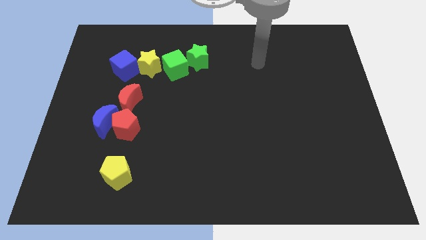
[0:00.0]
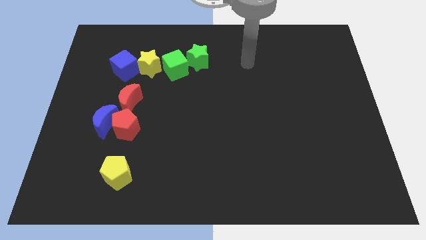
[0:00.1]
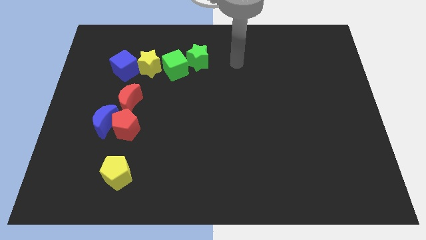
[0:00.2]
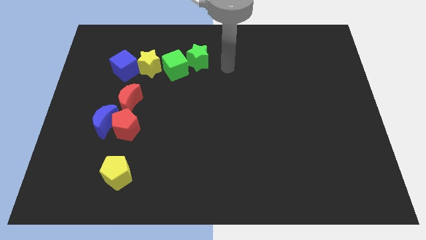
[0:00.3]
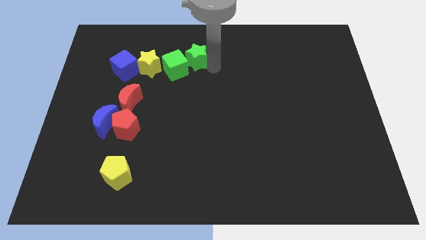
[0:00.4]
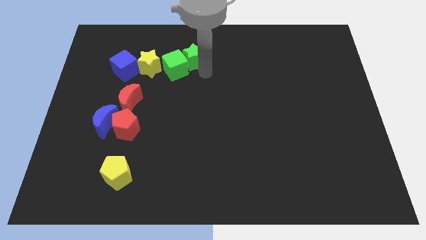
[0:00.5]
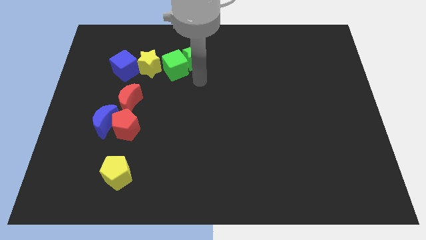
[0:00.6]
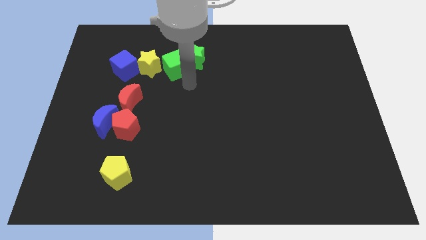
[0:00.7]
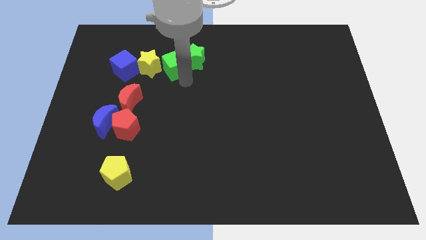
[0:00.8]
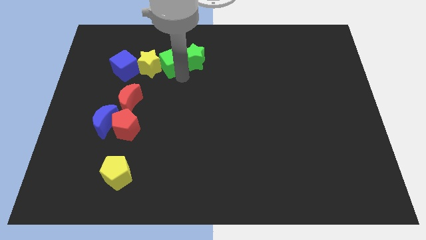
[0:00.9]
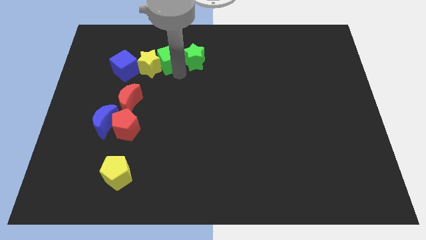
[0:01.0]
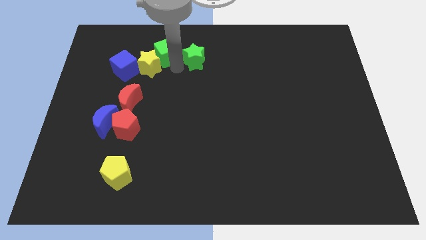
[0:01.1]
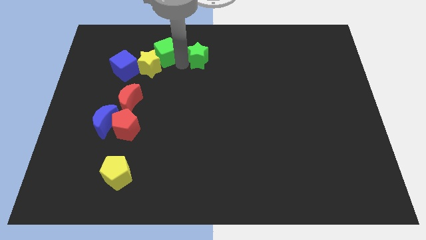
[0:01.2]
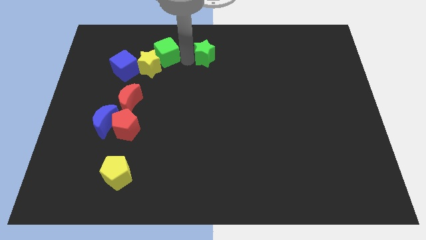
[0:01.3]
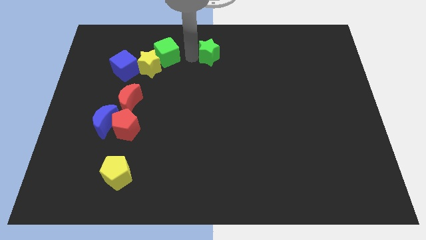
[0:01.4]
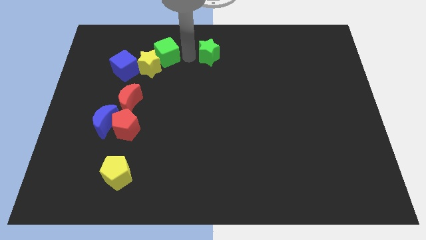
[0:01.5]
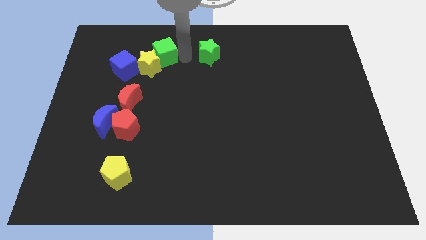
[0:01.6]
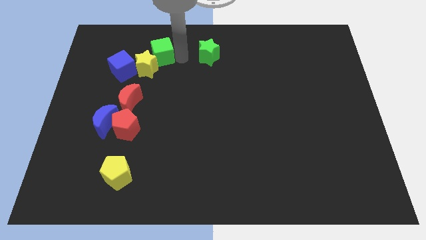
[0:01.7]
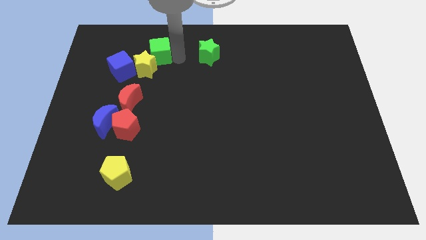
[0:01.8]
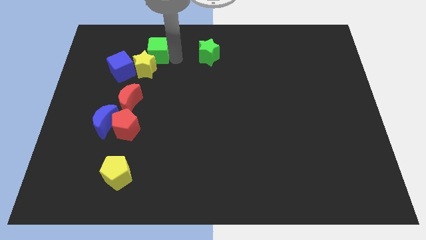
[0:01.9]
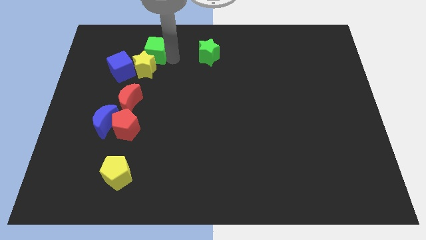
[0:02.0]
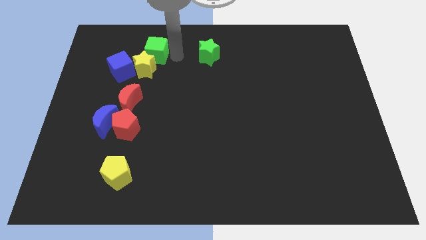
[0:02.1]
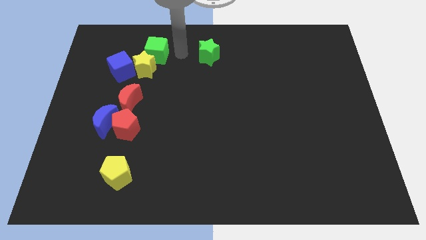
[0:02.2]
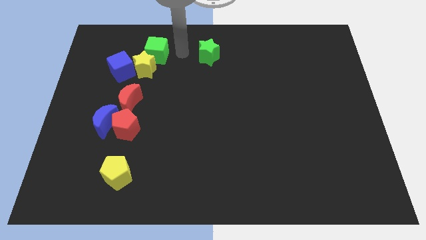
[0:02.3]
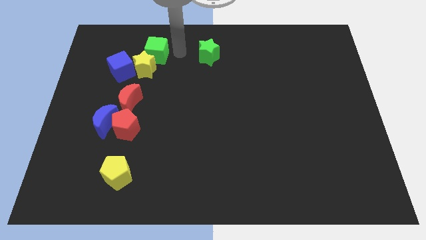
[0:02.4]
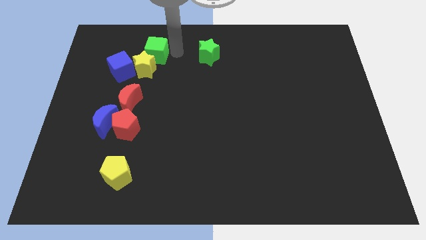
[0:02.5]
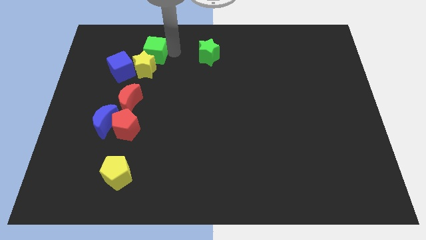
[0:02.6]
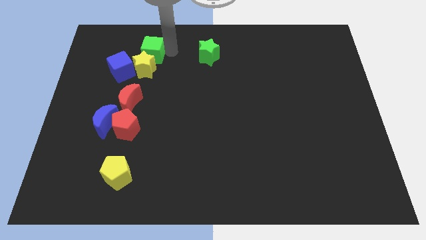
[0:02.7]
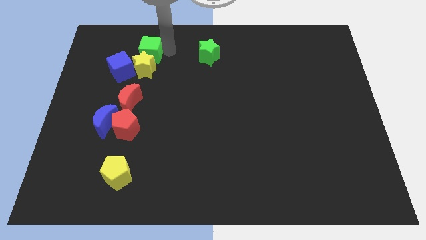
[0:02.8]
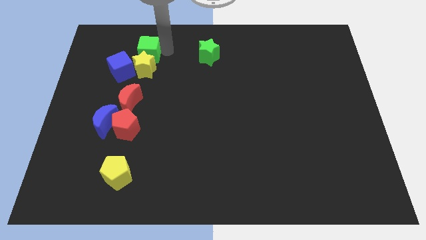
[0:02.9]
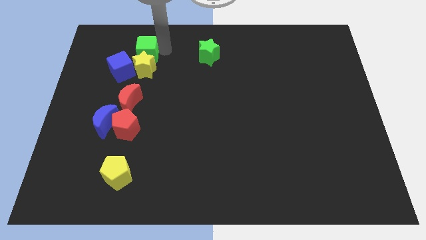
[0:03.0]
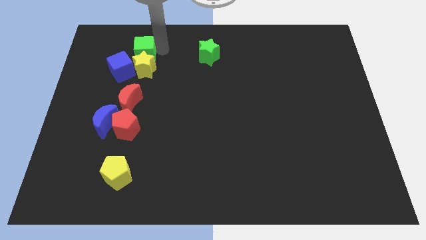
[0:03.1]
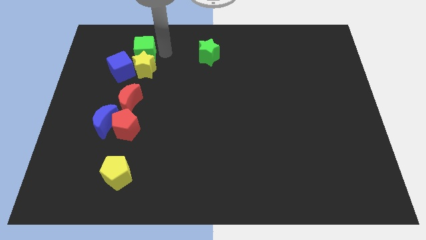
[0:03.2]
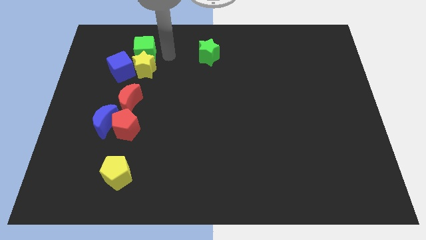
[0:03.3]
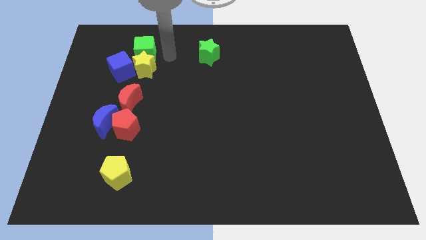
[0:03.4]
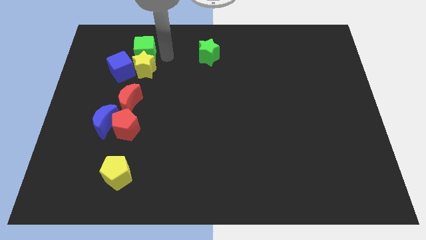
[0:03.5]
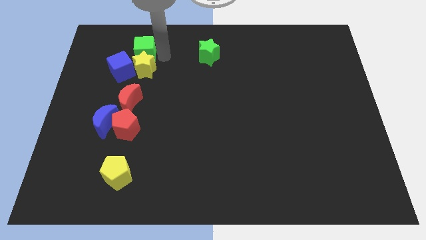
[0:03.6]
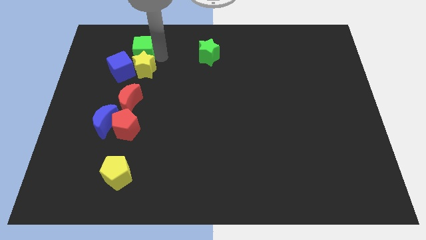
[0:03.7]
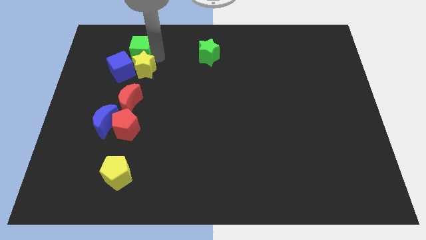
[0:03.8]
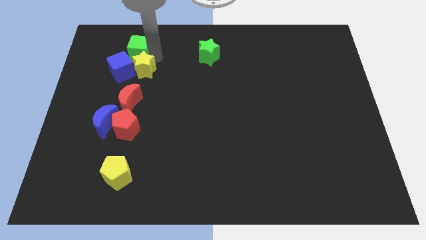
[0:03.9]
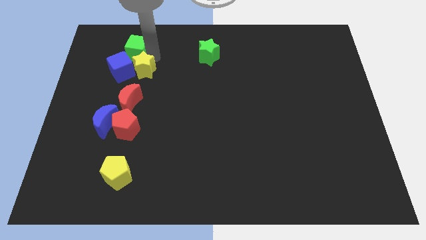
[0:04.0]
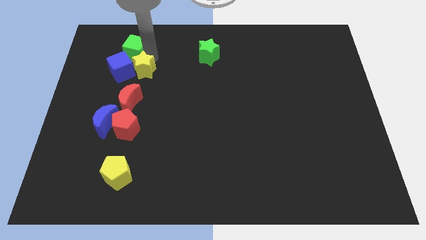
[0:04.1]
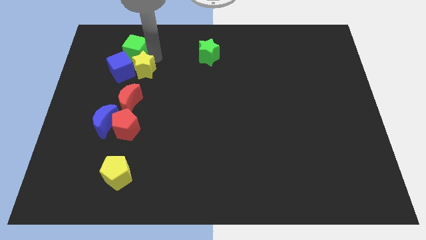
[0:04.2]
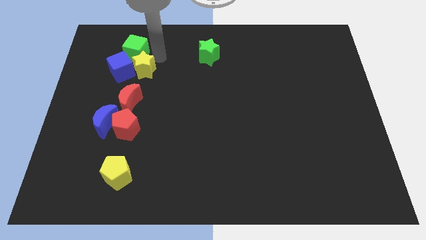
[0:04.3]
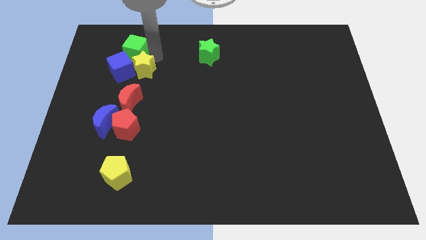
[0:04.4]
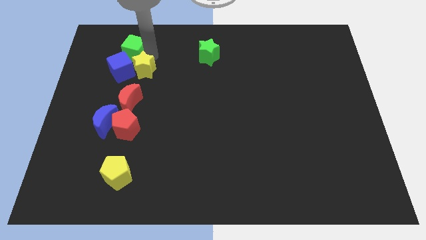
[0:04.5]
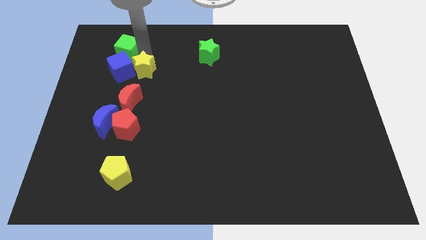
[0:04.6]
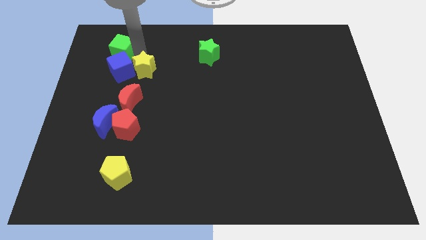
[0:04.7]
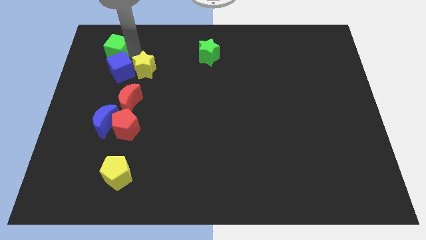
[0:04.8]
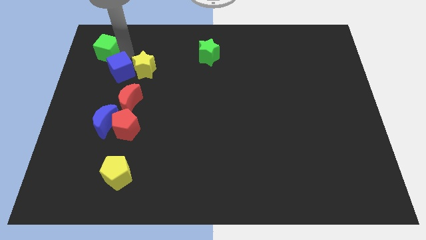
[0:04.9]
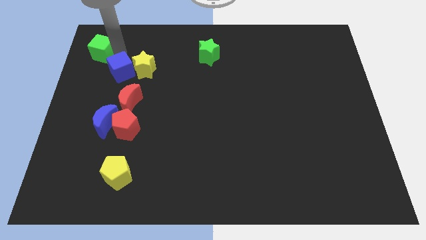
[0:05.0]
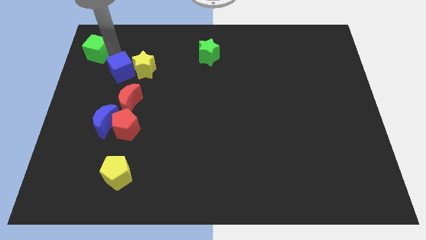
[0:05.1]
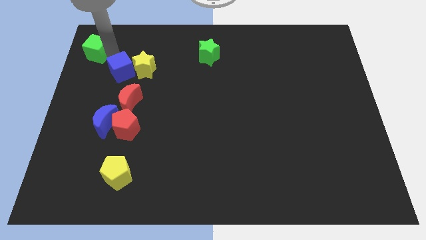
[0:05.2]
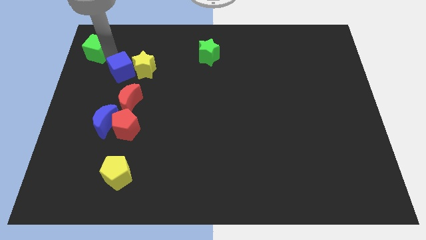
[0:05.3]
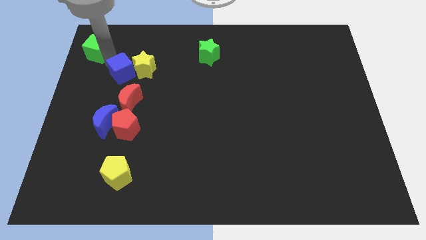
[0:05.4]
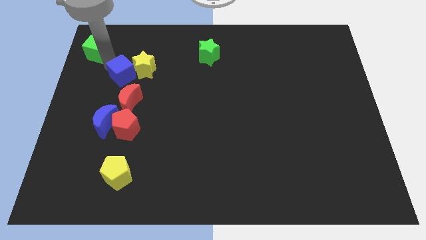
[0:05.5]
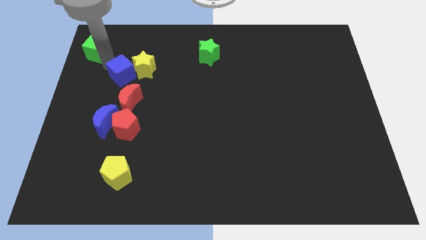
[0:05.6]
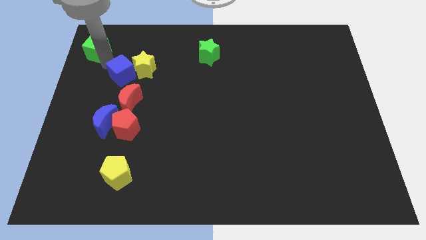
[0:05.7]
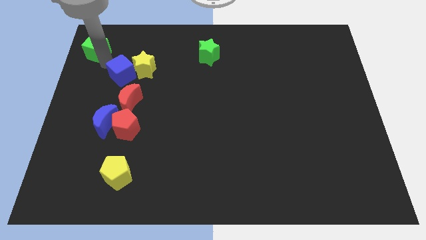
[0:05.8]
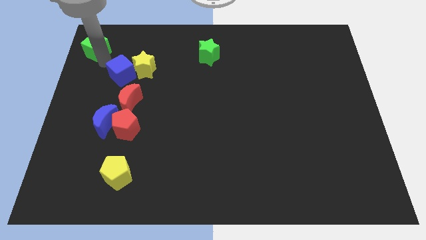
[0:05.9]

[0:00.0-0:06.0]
put the green cube to the top left

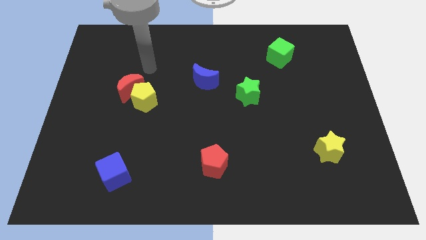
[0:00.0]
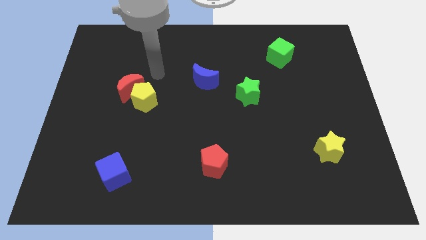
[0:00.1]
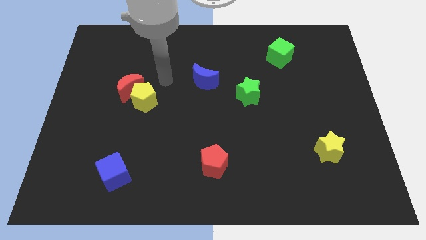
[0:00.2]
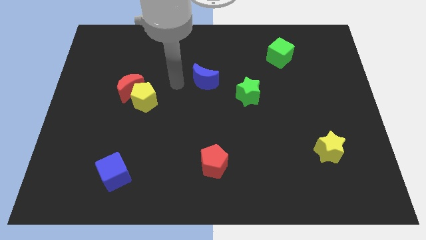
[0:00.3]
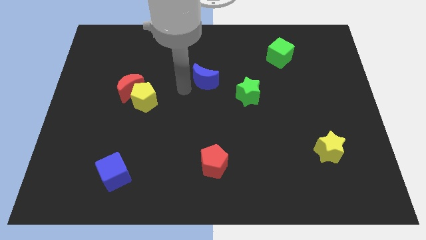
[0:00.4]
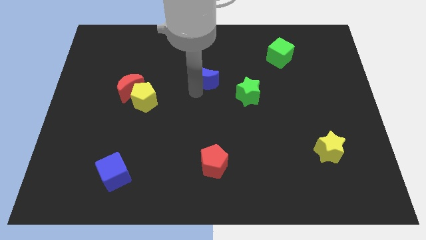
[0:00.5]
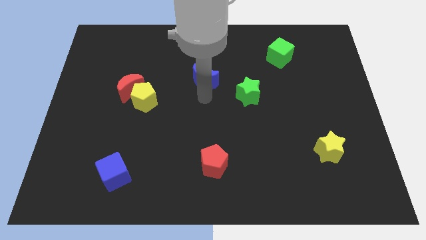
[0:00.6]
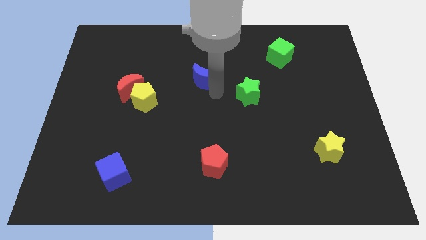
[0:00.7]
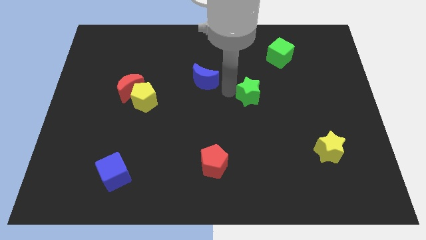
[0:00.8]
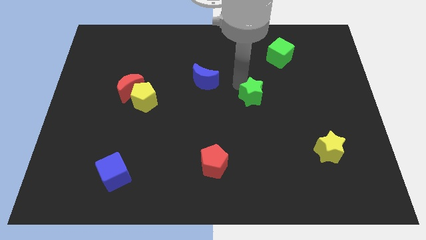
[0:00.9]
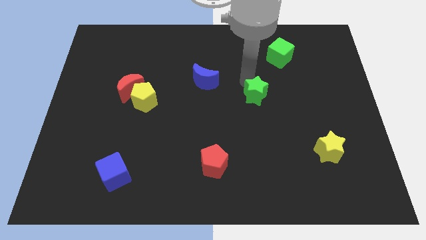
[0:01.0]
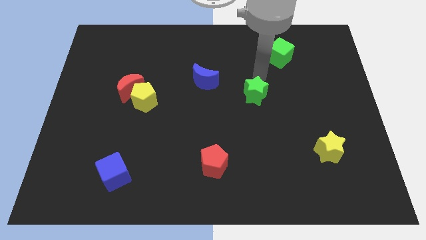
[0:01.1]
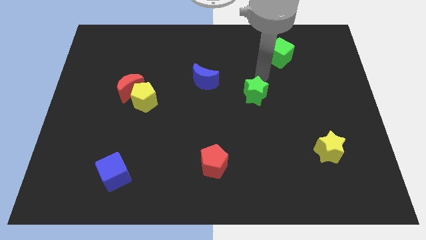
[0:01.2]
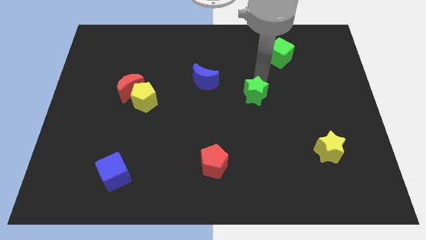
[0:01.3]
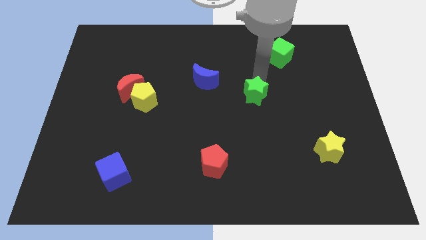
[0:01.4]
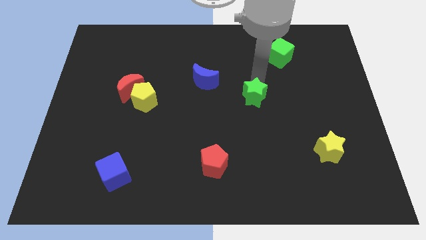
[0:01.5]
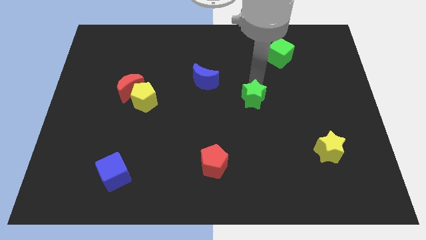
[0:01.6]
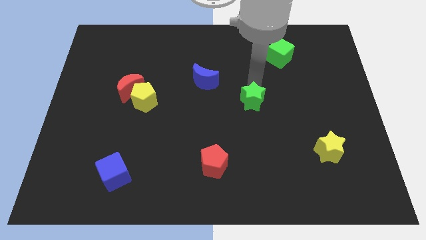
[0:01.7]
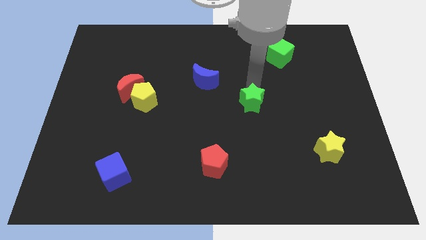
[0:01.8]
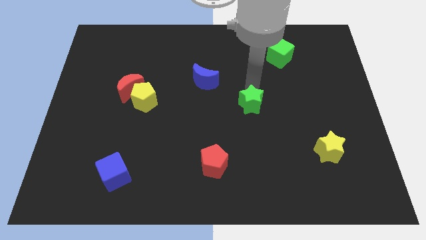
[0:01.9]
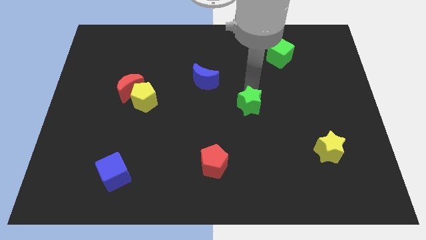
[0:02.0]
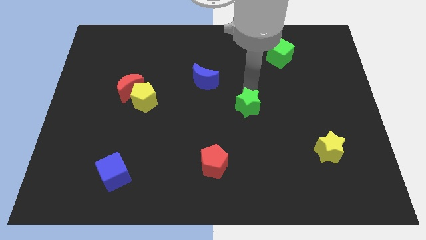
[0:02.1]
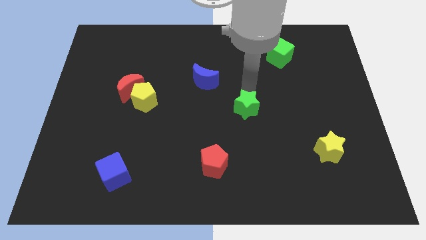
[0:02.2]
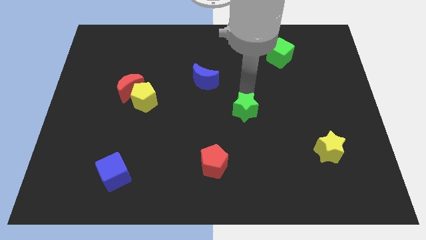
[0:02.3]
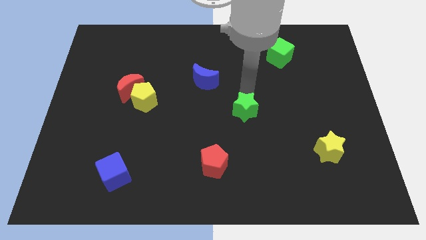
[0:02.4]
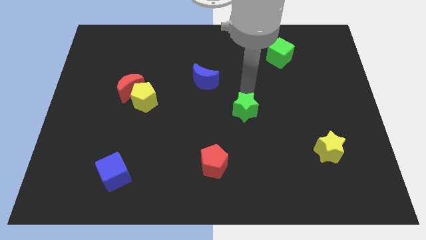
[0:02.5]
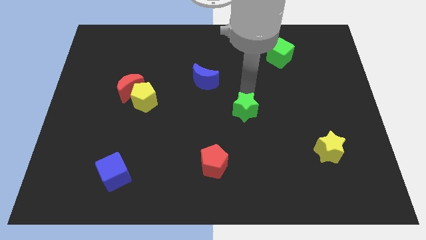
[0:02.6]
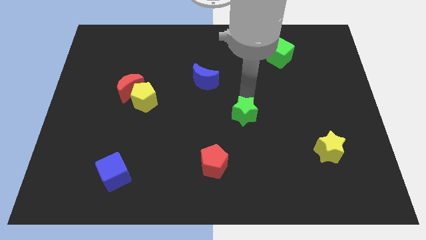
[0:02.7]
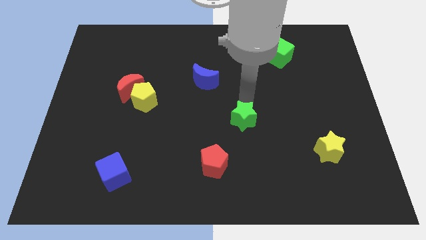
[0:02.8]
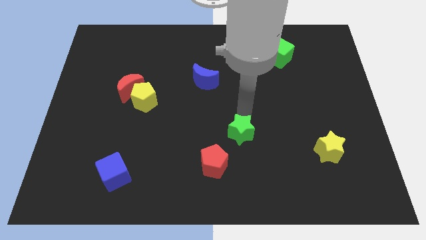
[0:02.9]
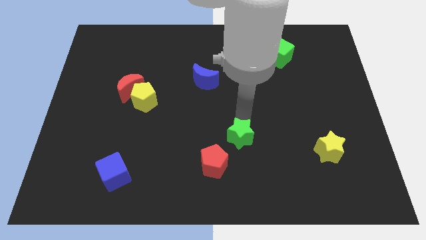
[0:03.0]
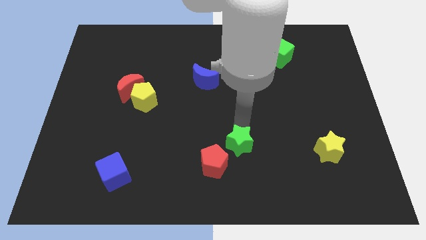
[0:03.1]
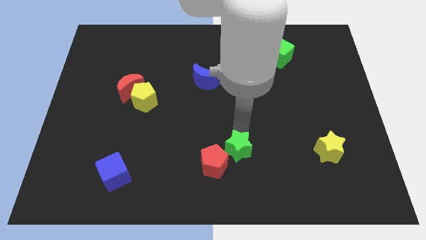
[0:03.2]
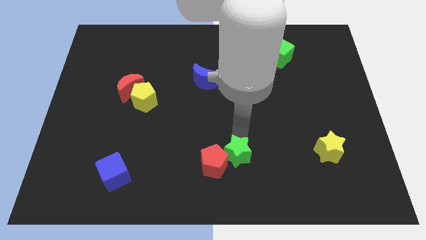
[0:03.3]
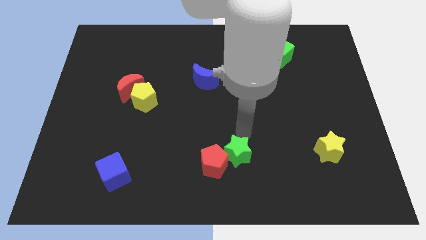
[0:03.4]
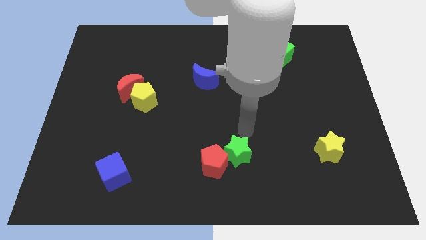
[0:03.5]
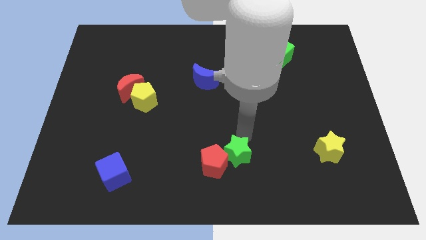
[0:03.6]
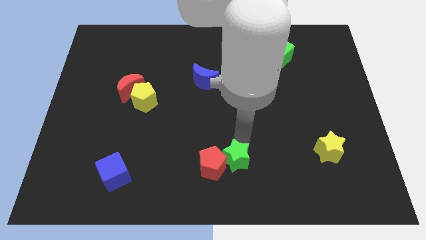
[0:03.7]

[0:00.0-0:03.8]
push the green star to the bottom
